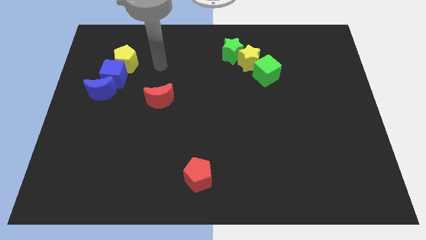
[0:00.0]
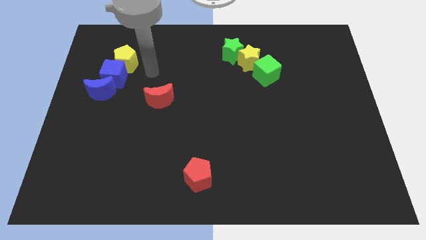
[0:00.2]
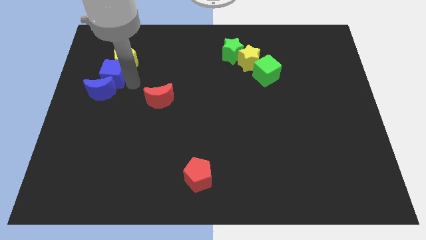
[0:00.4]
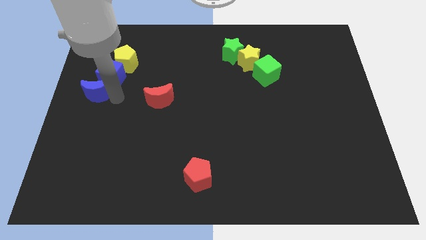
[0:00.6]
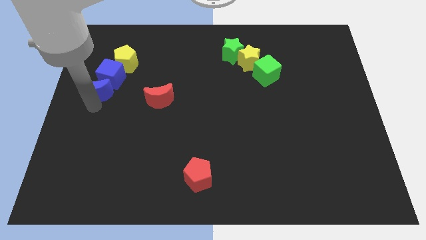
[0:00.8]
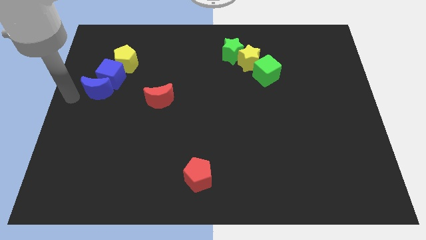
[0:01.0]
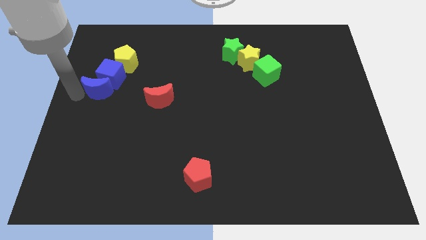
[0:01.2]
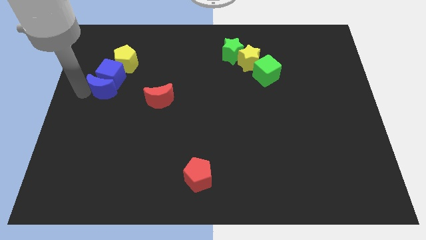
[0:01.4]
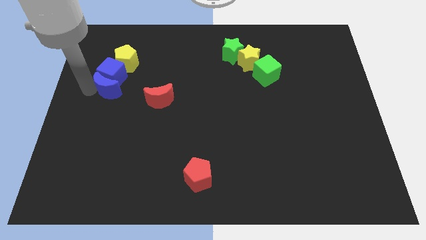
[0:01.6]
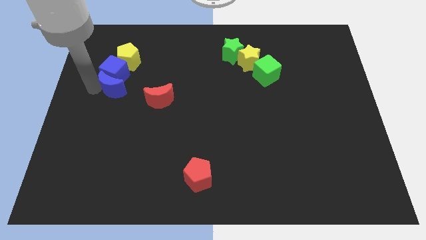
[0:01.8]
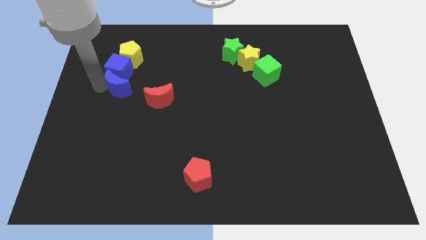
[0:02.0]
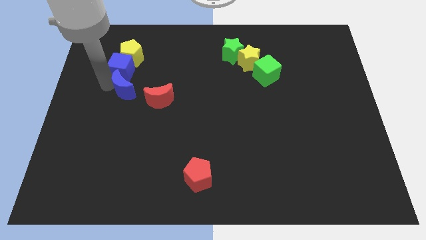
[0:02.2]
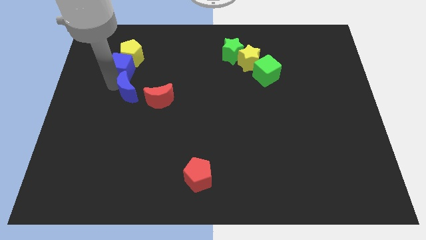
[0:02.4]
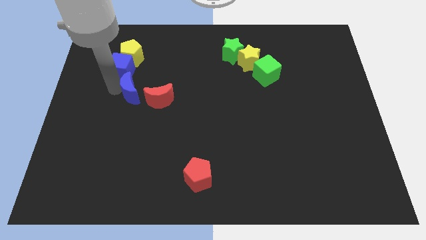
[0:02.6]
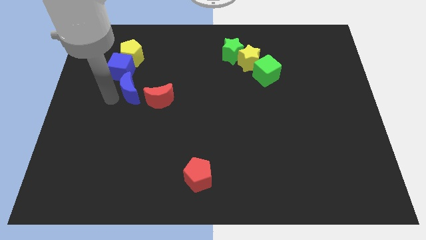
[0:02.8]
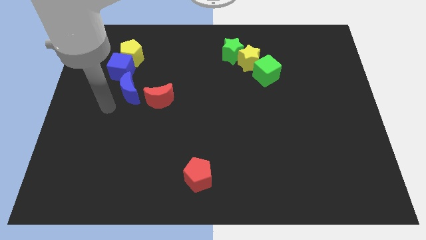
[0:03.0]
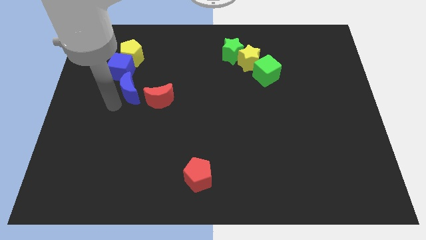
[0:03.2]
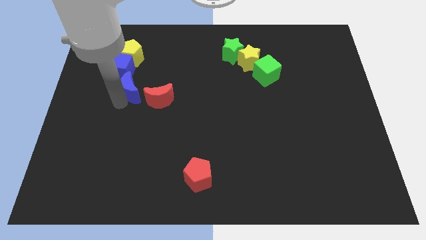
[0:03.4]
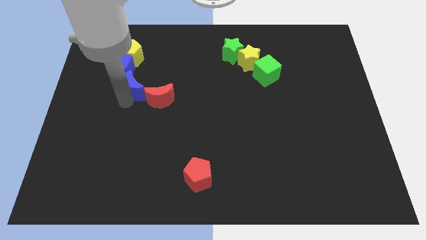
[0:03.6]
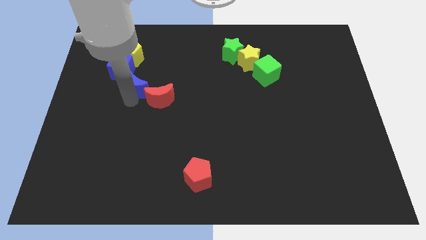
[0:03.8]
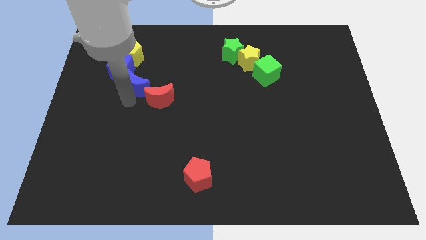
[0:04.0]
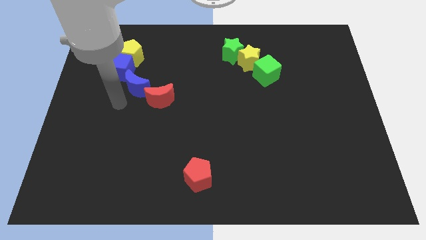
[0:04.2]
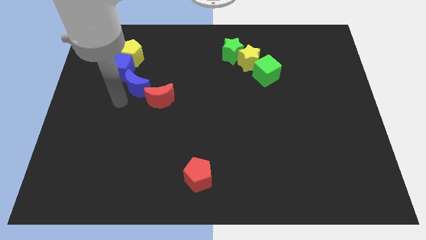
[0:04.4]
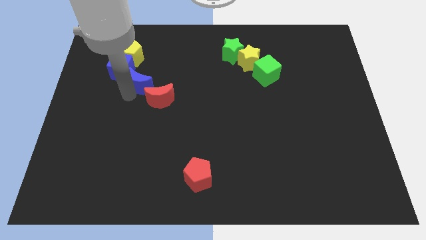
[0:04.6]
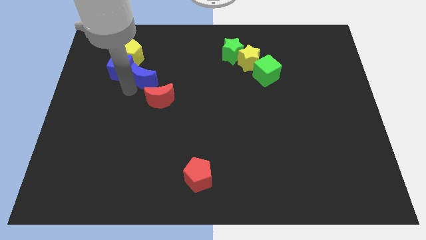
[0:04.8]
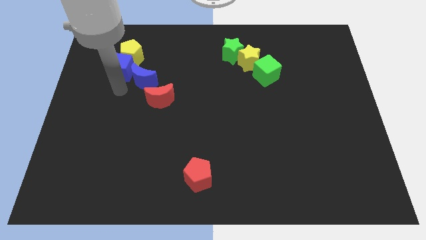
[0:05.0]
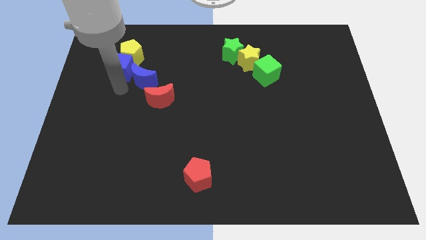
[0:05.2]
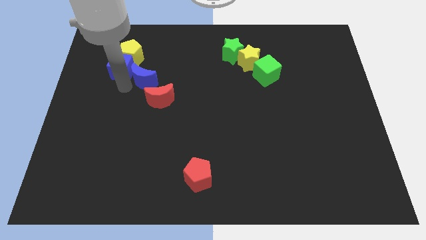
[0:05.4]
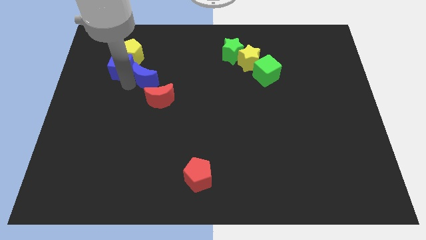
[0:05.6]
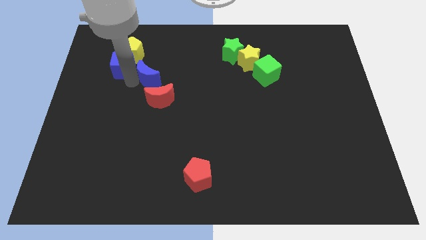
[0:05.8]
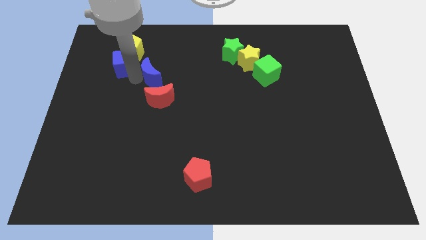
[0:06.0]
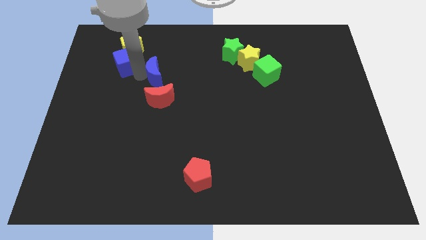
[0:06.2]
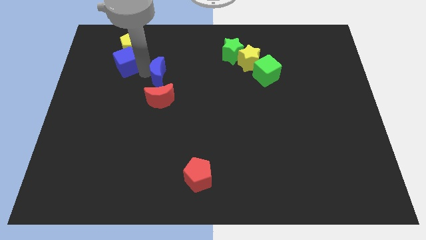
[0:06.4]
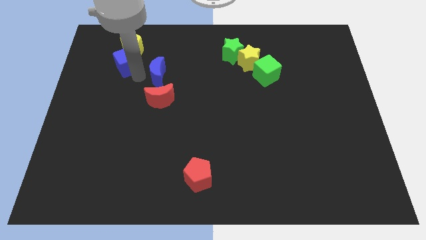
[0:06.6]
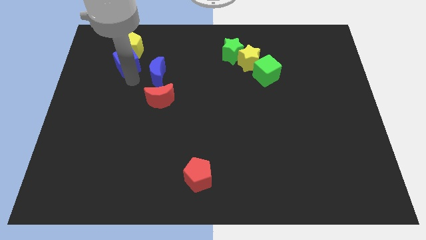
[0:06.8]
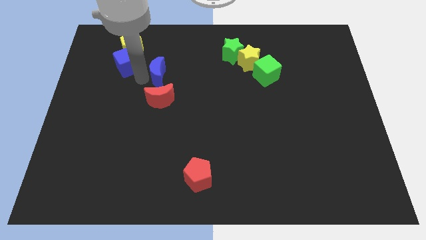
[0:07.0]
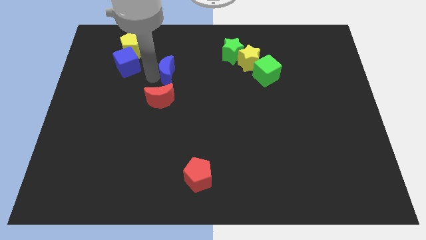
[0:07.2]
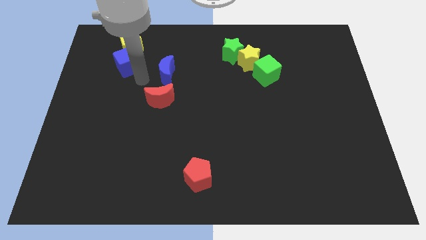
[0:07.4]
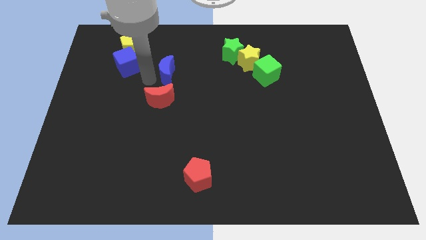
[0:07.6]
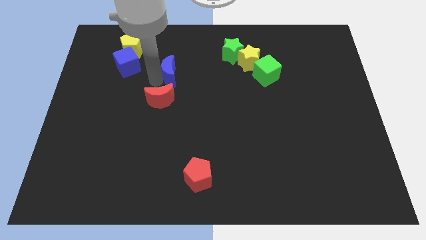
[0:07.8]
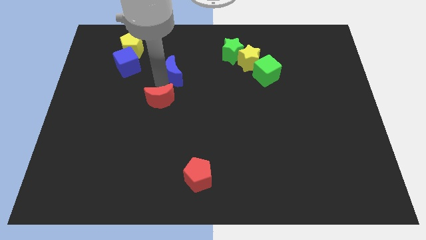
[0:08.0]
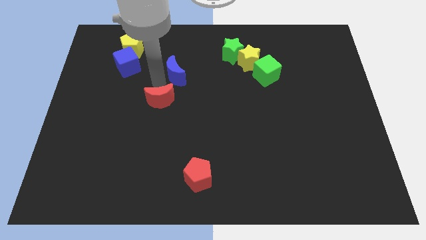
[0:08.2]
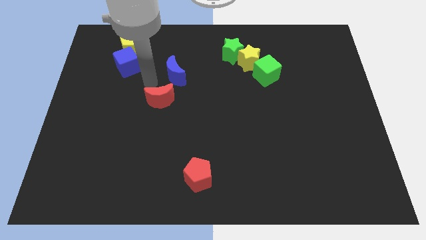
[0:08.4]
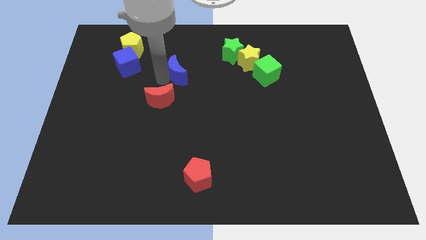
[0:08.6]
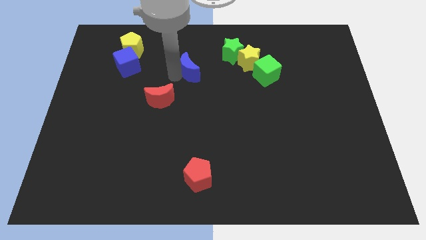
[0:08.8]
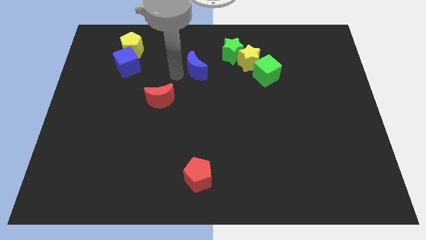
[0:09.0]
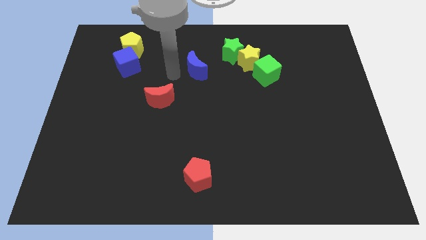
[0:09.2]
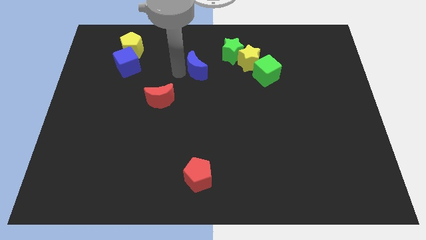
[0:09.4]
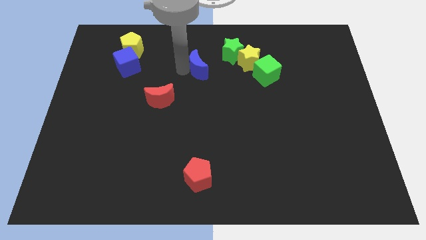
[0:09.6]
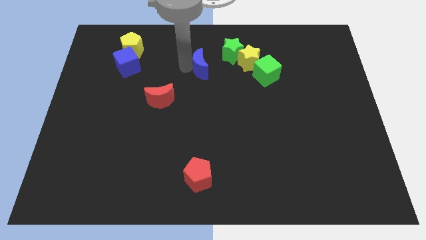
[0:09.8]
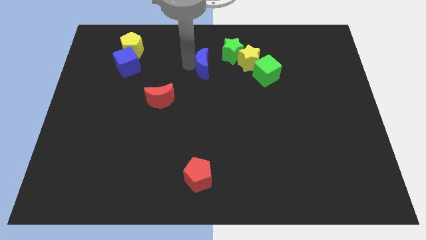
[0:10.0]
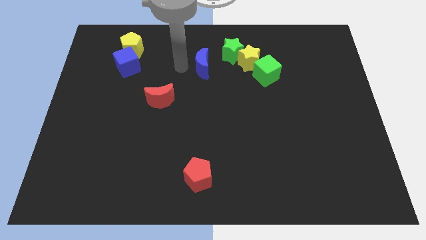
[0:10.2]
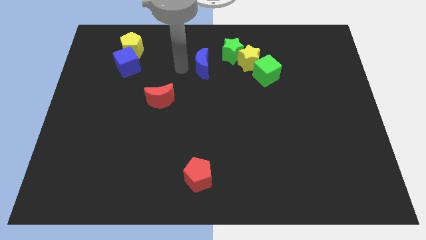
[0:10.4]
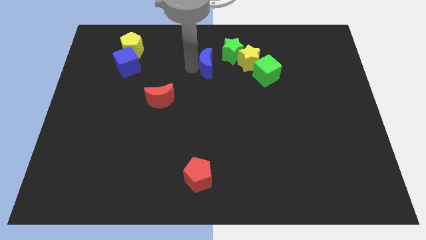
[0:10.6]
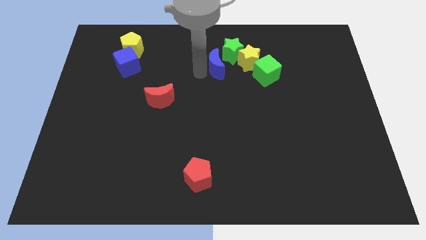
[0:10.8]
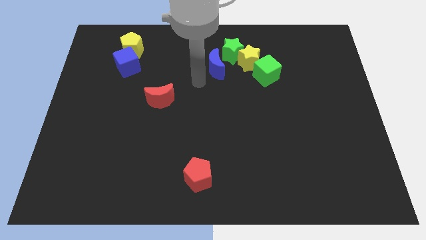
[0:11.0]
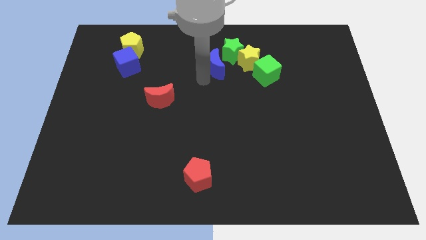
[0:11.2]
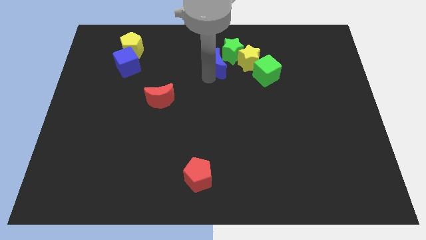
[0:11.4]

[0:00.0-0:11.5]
move the blue moon close to the green star

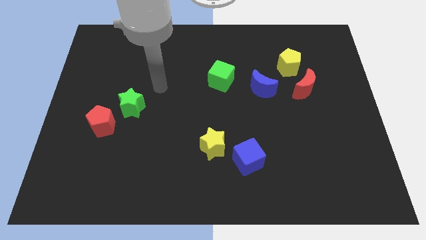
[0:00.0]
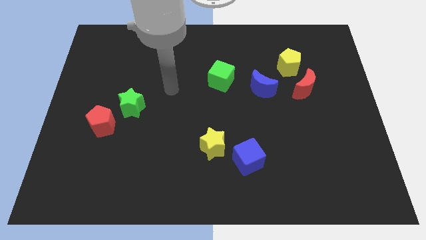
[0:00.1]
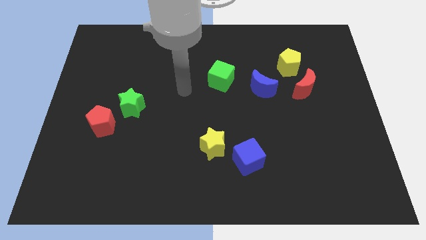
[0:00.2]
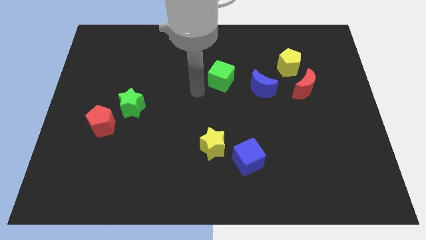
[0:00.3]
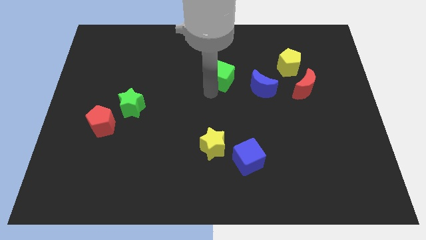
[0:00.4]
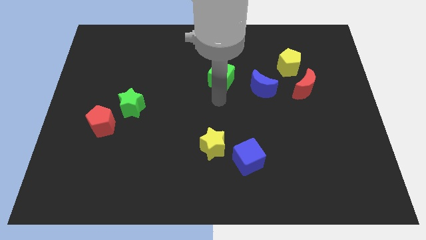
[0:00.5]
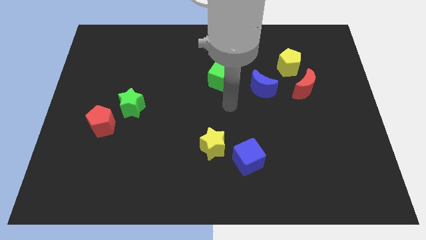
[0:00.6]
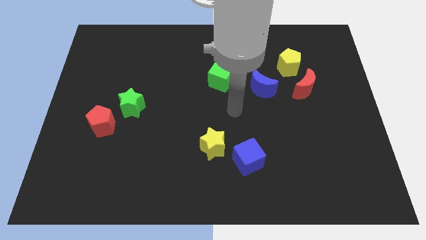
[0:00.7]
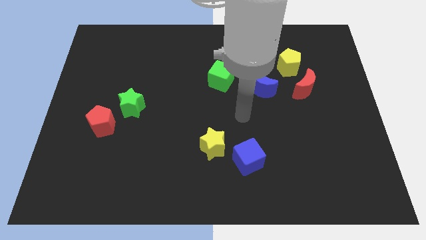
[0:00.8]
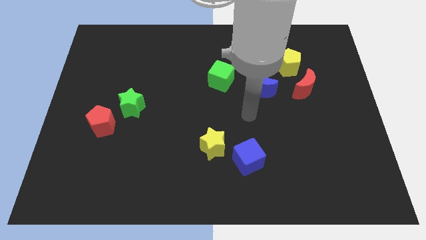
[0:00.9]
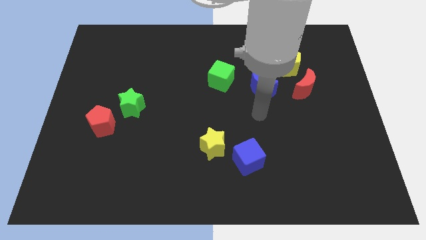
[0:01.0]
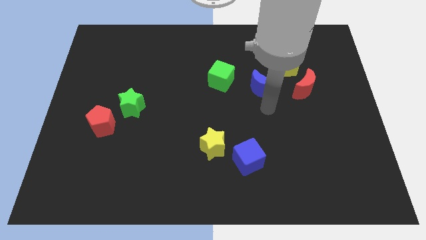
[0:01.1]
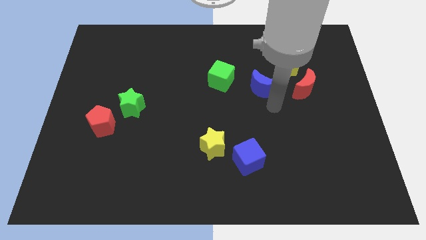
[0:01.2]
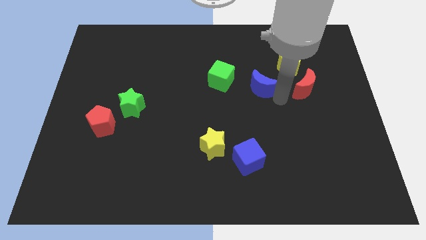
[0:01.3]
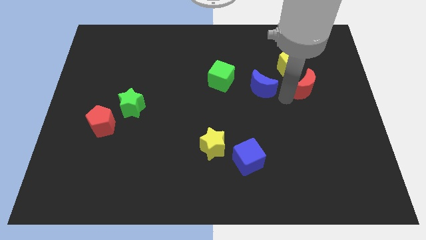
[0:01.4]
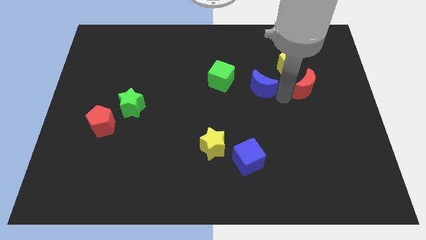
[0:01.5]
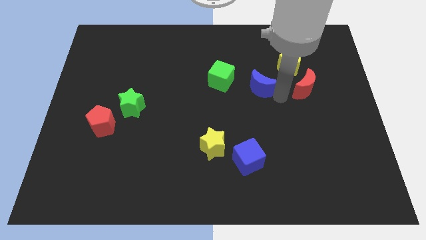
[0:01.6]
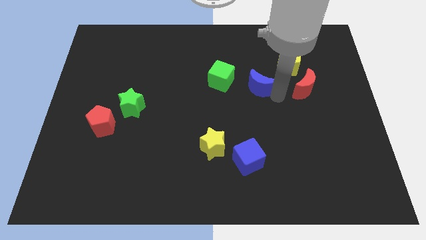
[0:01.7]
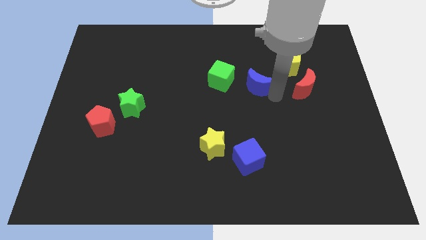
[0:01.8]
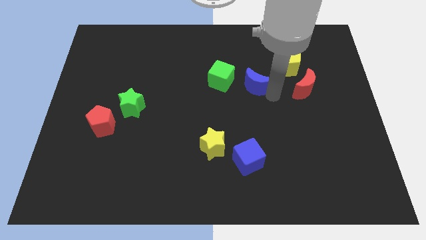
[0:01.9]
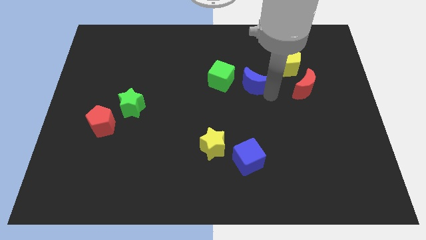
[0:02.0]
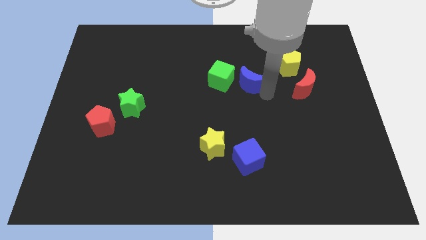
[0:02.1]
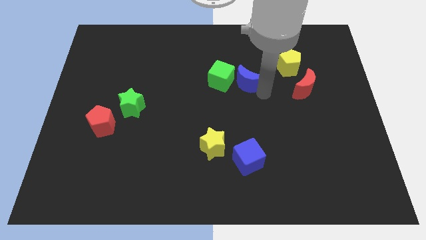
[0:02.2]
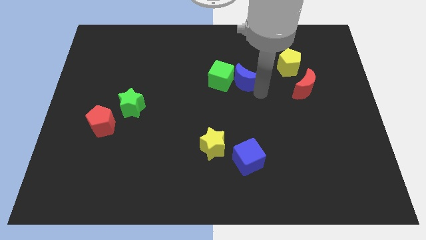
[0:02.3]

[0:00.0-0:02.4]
push the blue moon towards the green cube
